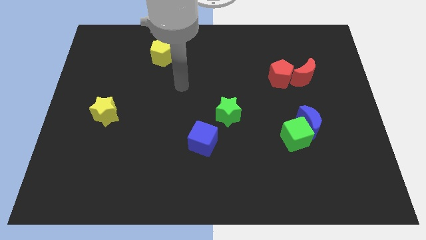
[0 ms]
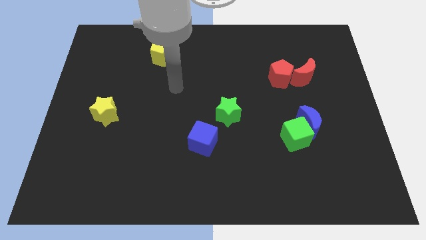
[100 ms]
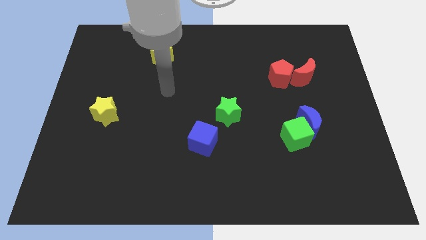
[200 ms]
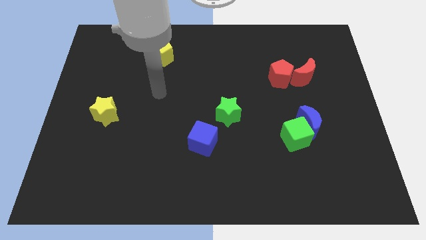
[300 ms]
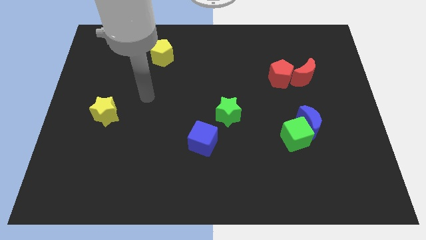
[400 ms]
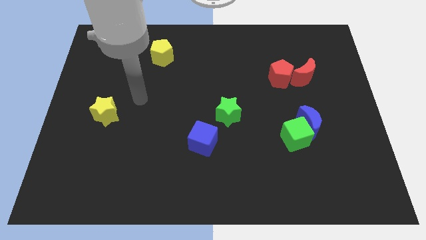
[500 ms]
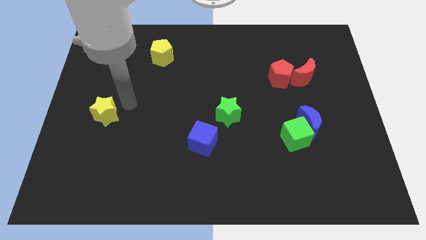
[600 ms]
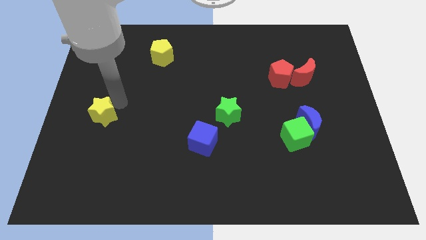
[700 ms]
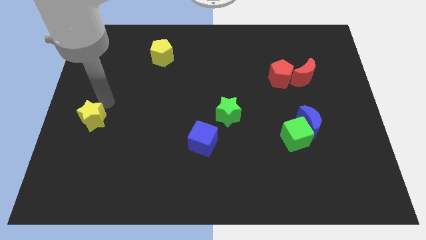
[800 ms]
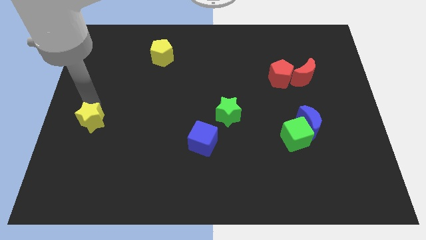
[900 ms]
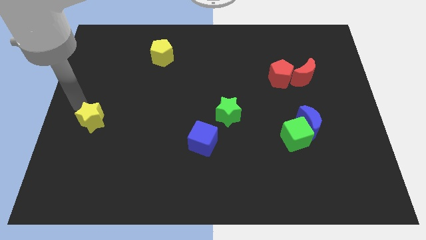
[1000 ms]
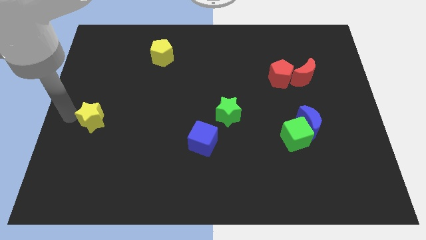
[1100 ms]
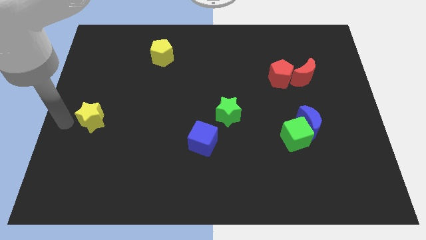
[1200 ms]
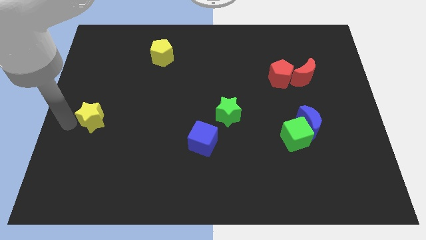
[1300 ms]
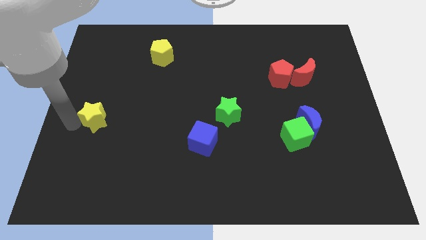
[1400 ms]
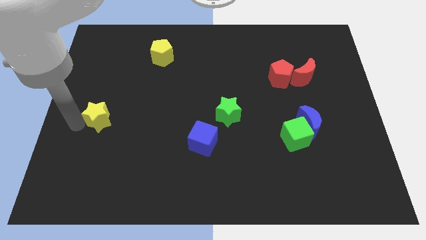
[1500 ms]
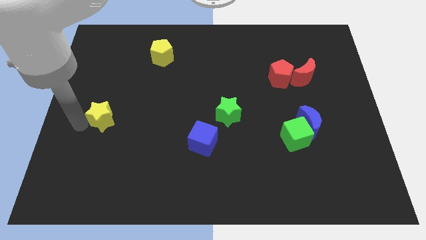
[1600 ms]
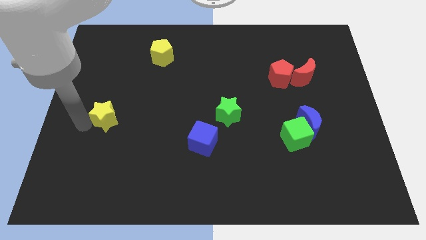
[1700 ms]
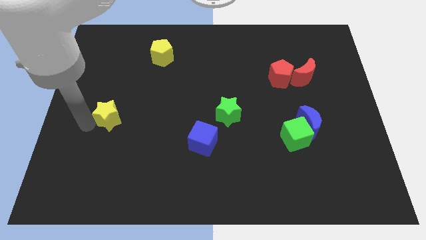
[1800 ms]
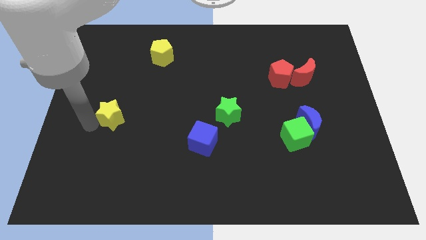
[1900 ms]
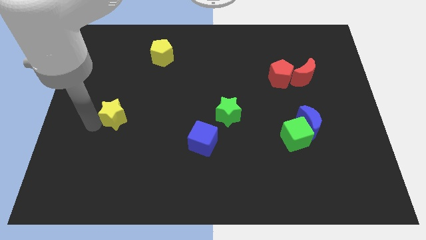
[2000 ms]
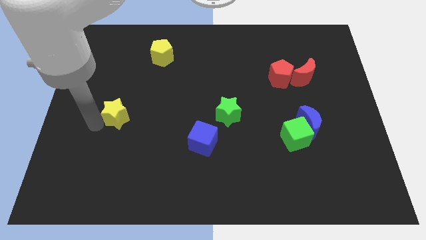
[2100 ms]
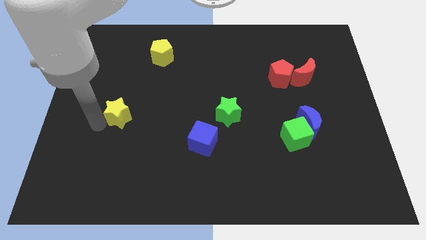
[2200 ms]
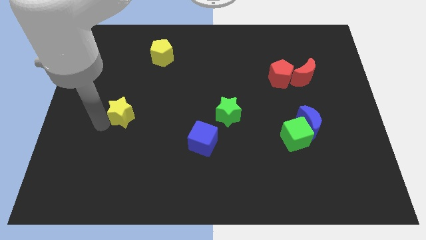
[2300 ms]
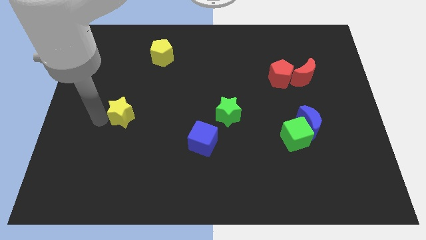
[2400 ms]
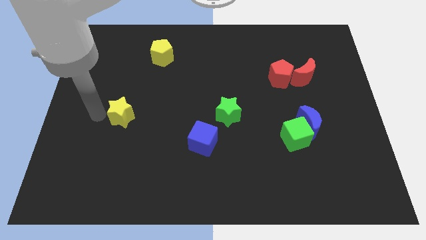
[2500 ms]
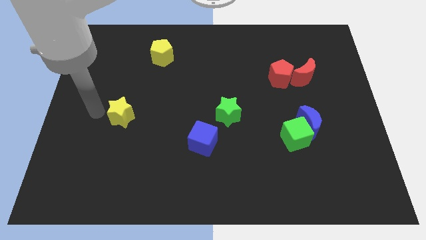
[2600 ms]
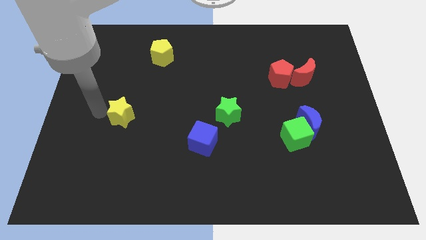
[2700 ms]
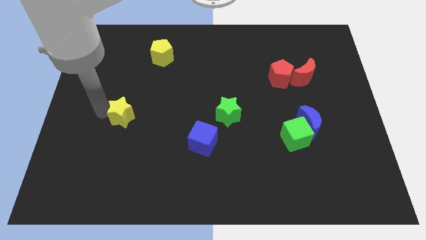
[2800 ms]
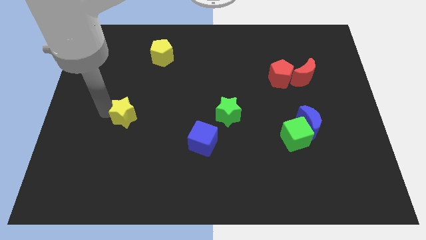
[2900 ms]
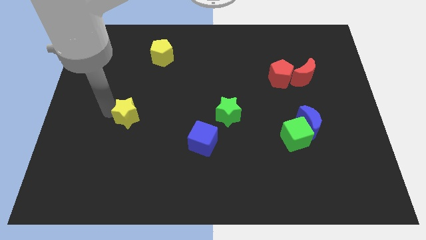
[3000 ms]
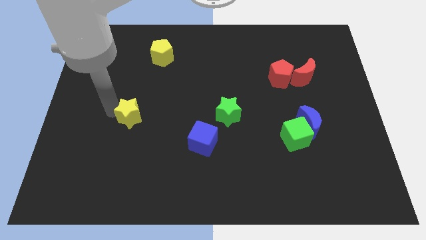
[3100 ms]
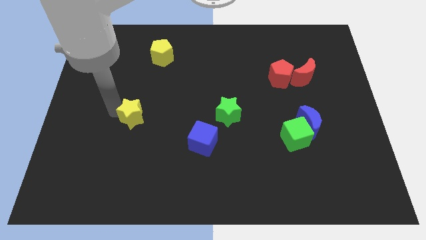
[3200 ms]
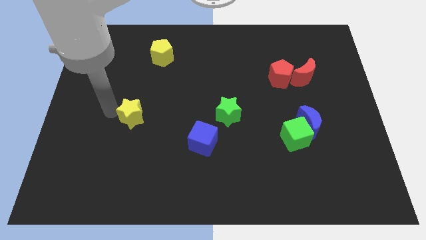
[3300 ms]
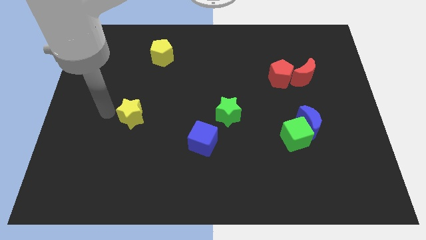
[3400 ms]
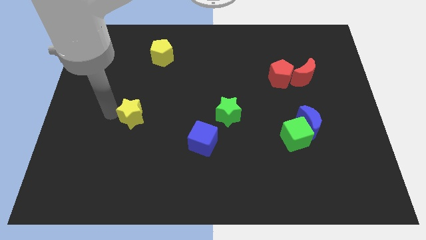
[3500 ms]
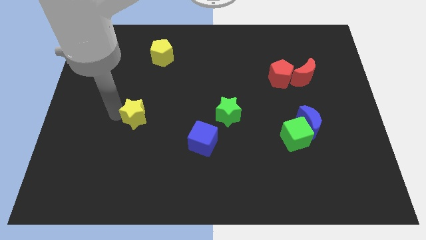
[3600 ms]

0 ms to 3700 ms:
push the yellow star right somewhat

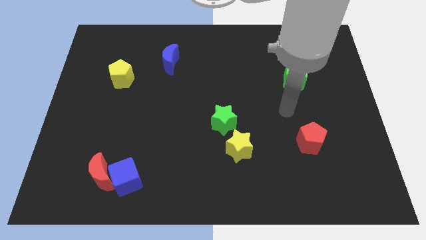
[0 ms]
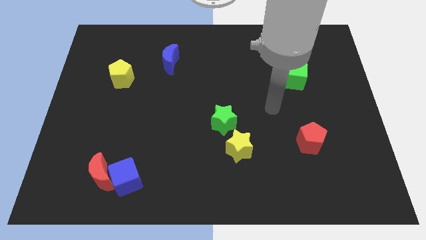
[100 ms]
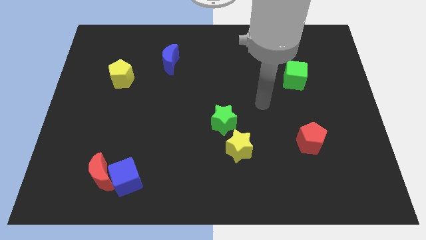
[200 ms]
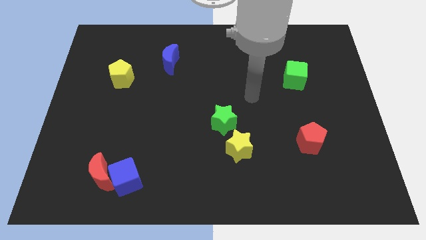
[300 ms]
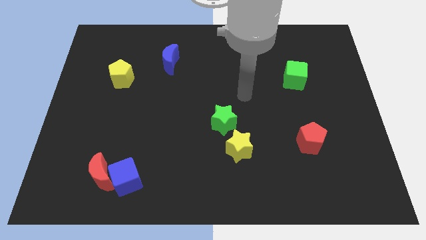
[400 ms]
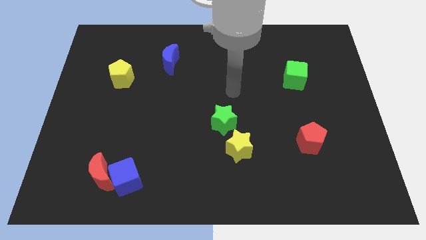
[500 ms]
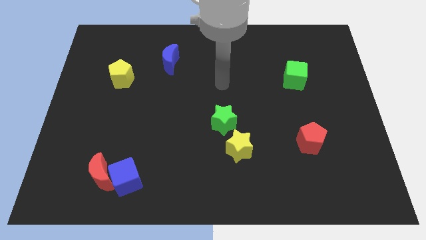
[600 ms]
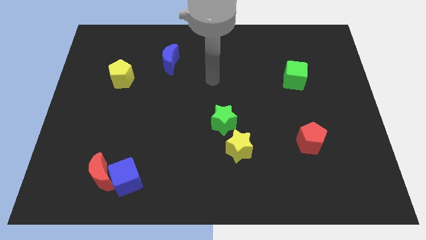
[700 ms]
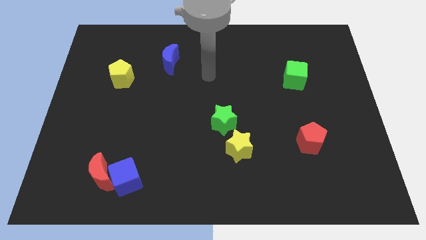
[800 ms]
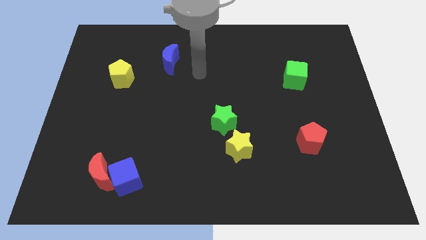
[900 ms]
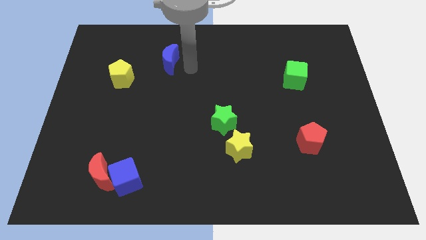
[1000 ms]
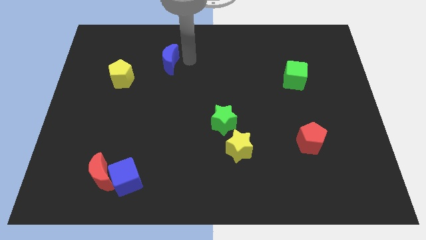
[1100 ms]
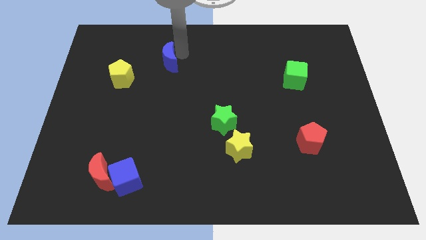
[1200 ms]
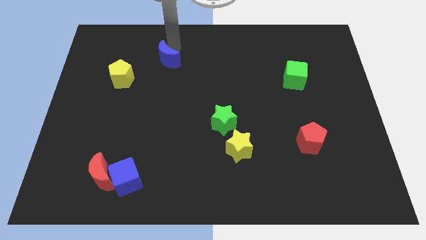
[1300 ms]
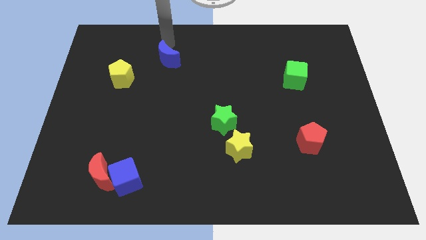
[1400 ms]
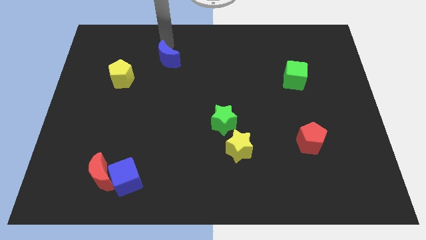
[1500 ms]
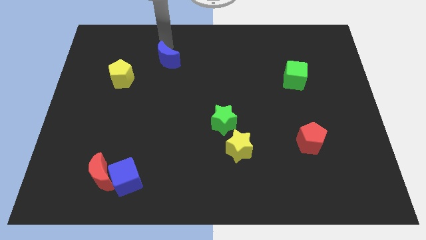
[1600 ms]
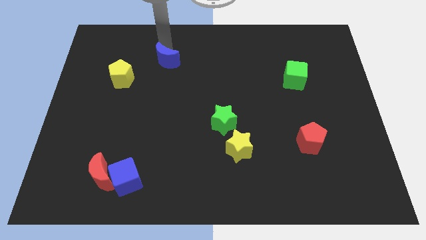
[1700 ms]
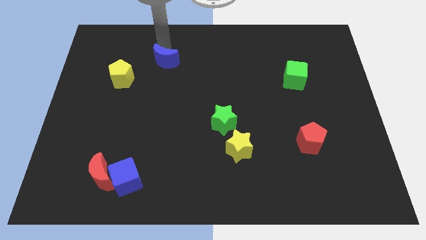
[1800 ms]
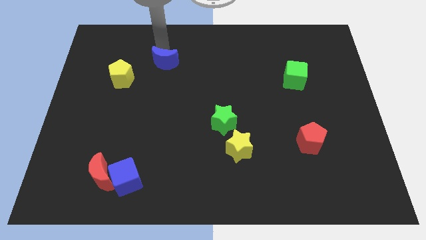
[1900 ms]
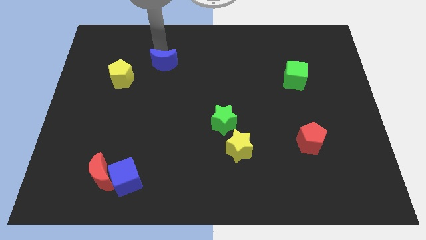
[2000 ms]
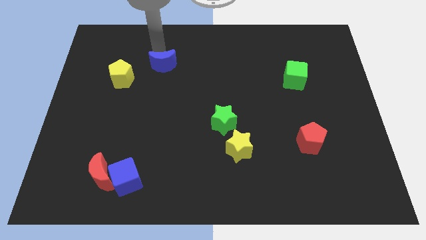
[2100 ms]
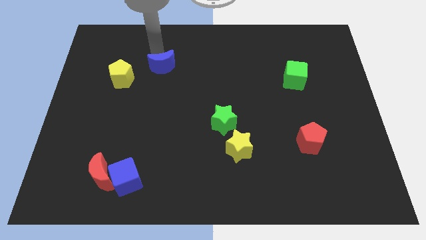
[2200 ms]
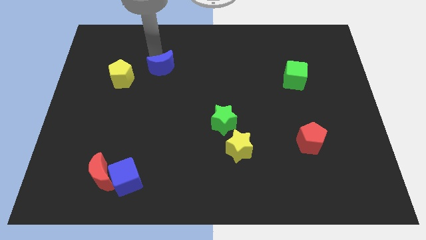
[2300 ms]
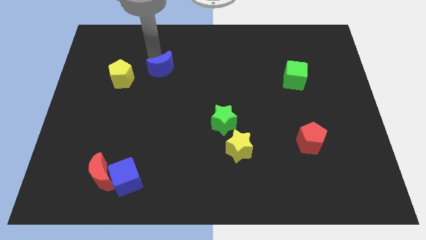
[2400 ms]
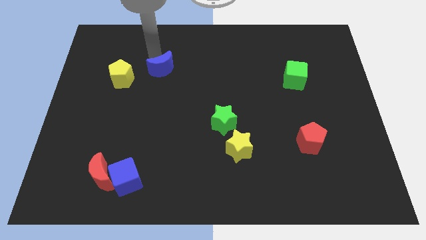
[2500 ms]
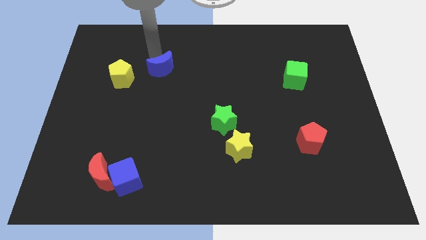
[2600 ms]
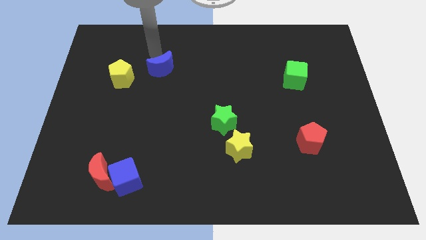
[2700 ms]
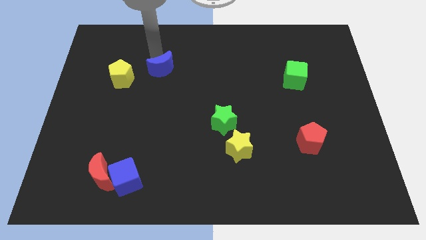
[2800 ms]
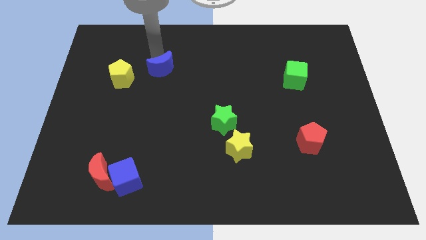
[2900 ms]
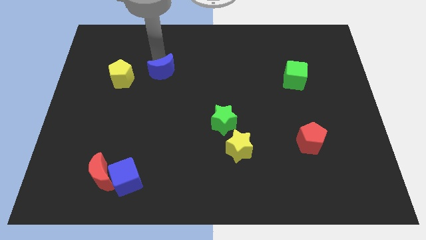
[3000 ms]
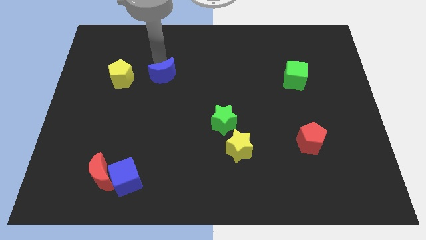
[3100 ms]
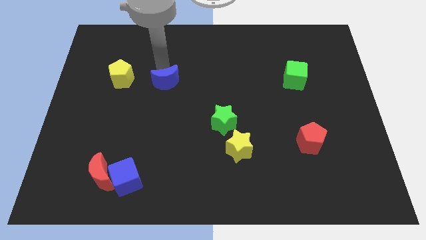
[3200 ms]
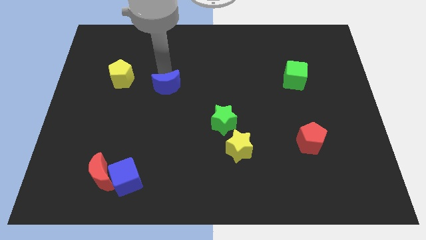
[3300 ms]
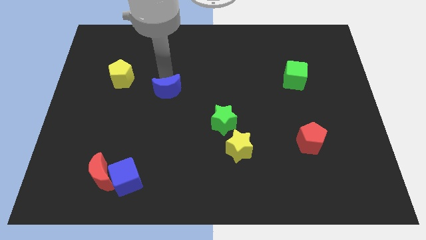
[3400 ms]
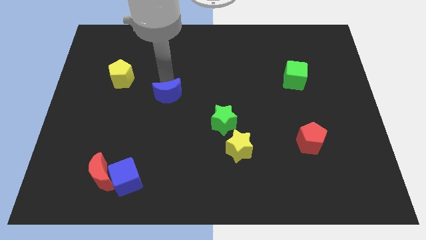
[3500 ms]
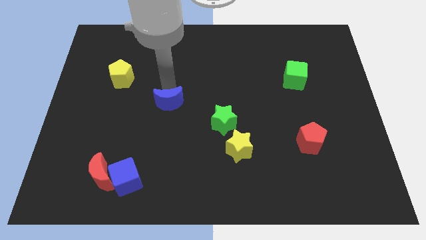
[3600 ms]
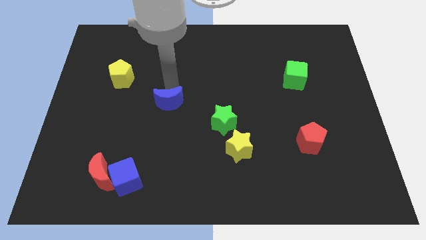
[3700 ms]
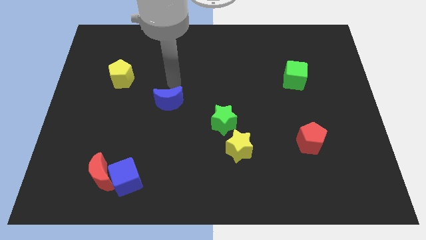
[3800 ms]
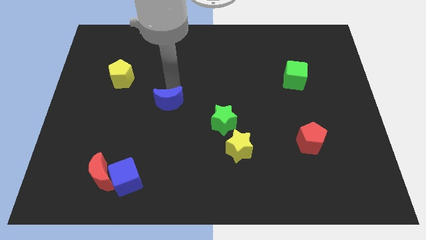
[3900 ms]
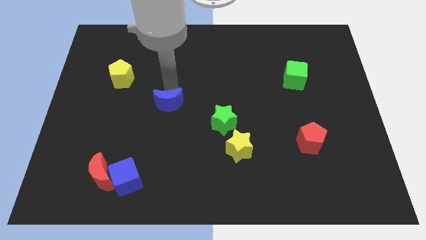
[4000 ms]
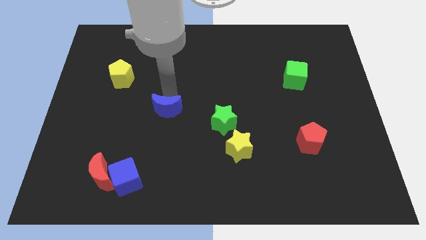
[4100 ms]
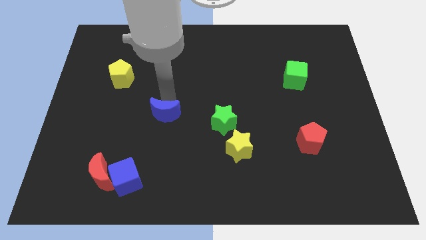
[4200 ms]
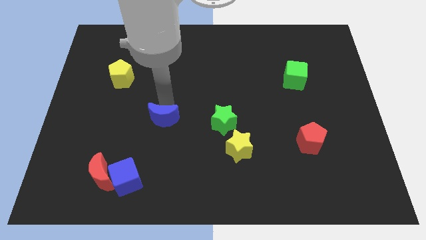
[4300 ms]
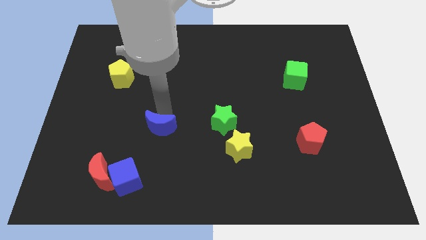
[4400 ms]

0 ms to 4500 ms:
slide the blue moon down

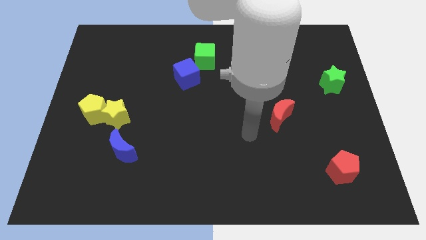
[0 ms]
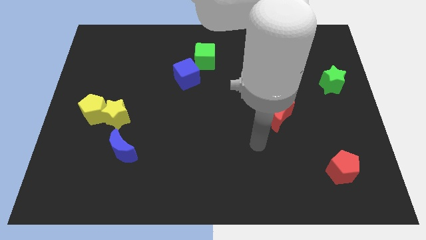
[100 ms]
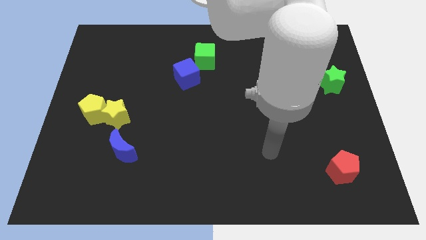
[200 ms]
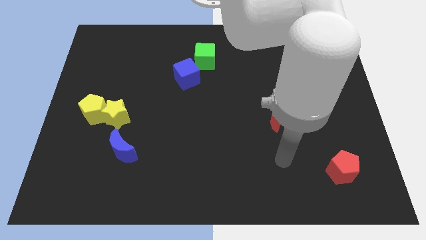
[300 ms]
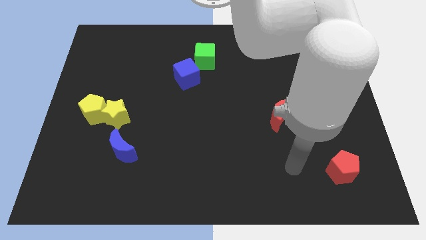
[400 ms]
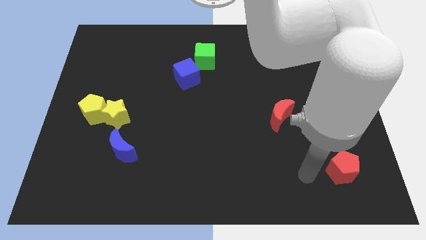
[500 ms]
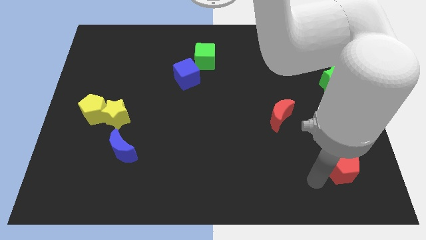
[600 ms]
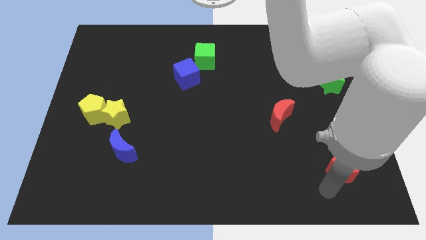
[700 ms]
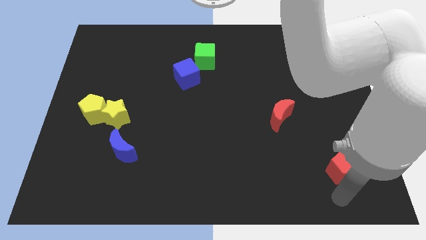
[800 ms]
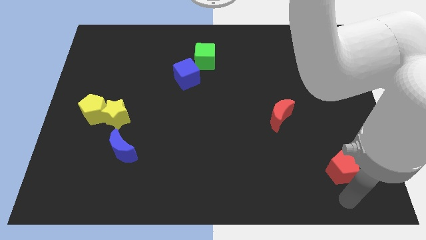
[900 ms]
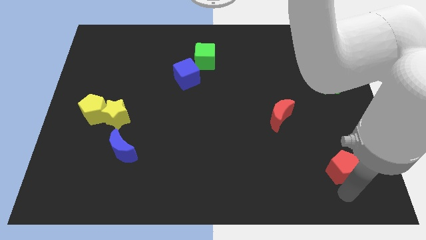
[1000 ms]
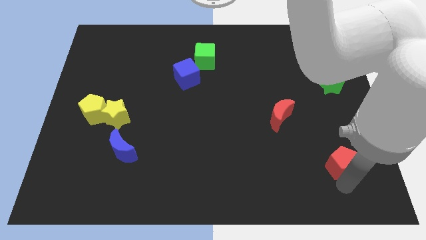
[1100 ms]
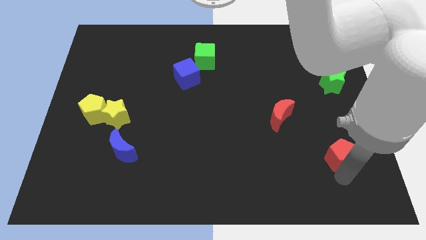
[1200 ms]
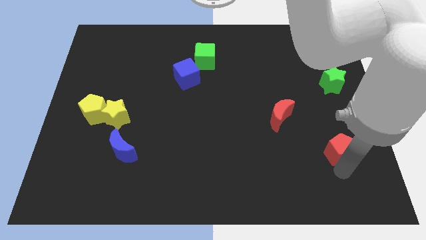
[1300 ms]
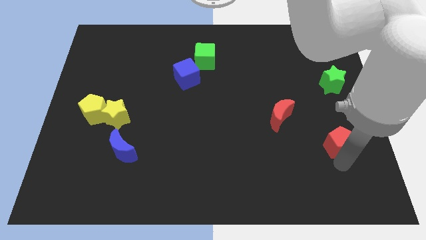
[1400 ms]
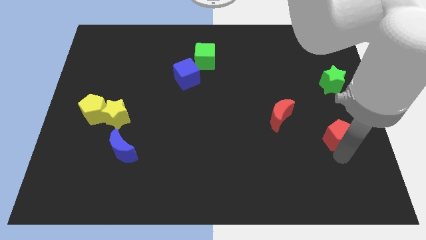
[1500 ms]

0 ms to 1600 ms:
move the red pentagon up slightly
